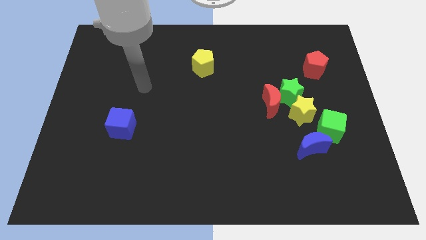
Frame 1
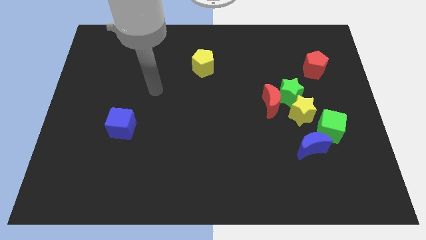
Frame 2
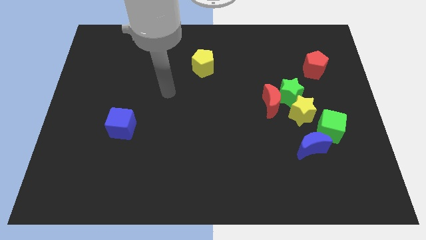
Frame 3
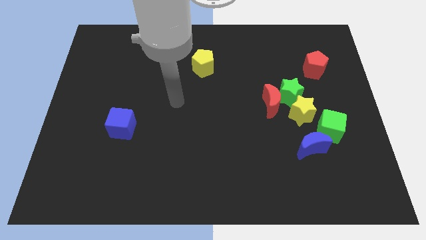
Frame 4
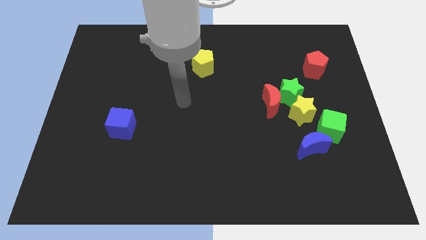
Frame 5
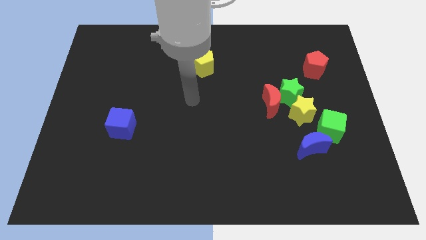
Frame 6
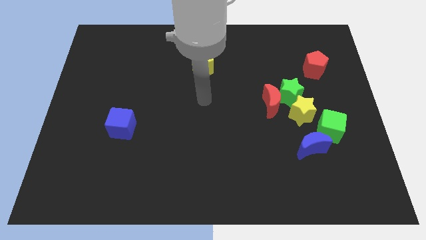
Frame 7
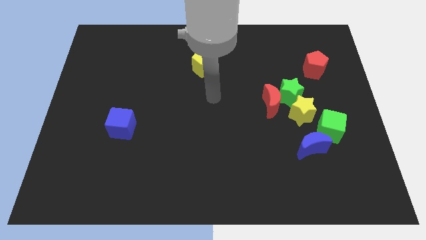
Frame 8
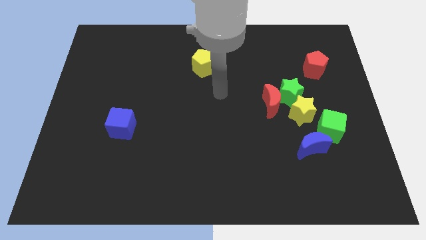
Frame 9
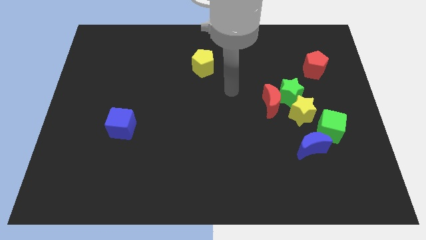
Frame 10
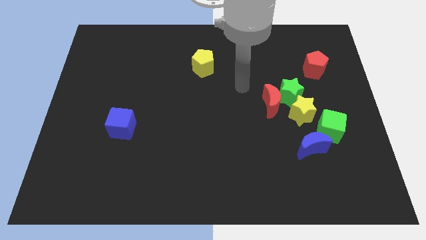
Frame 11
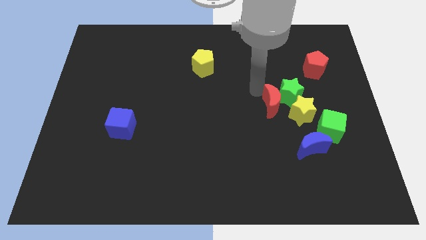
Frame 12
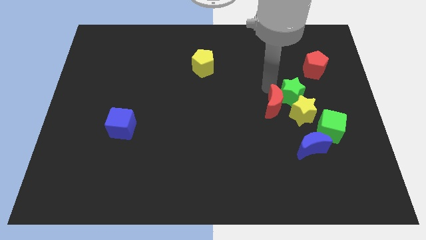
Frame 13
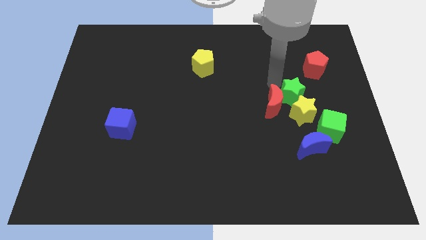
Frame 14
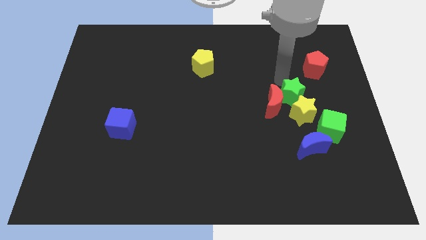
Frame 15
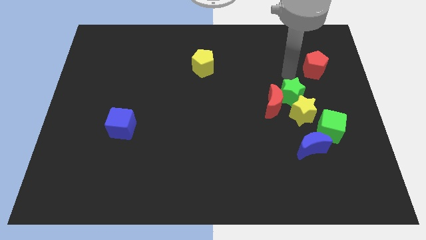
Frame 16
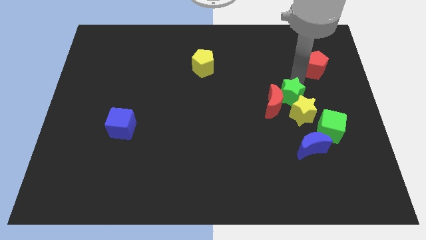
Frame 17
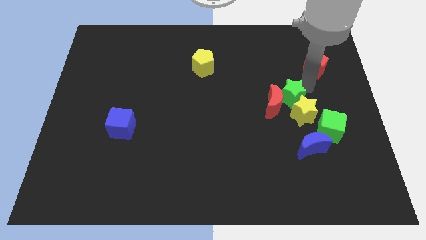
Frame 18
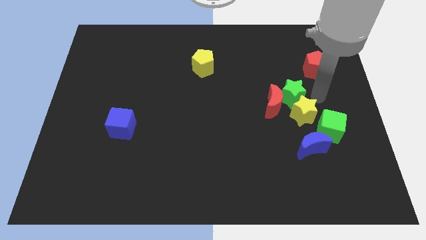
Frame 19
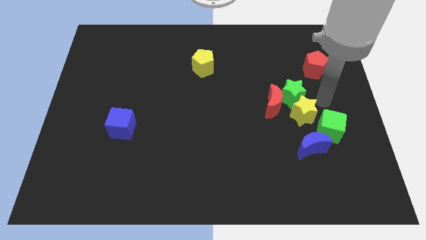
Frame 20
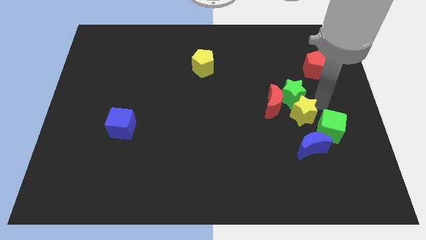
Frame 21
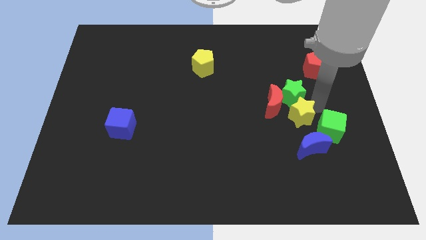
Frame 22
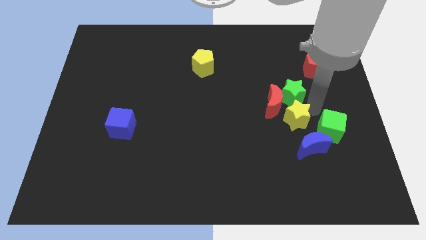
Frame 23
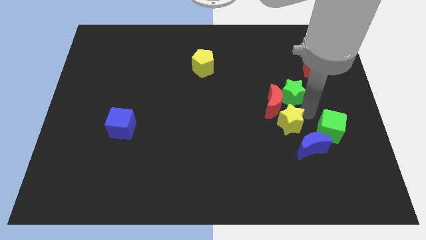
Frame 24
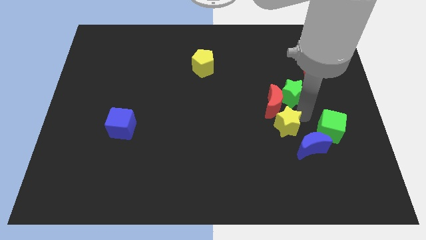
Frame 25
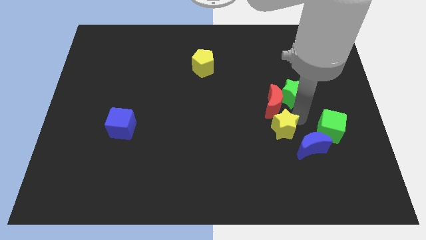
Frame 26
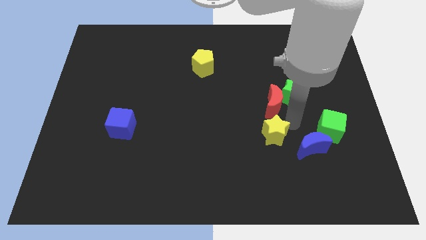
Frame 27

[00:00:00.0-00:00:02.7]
slightly push the yellow star down and then to the left

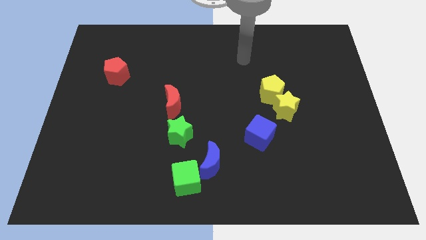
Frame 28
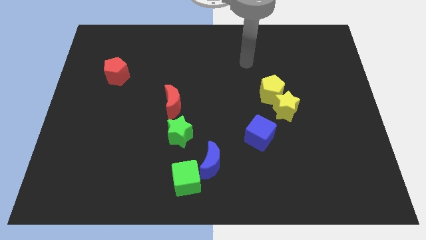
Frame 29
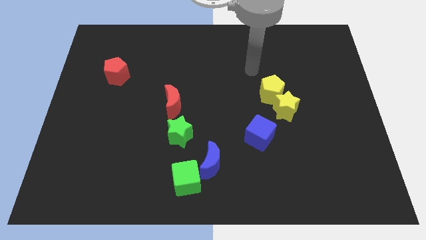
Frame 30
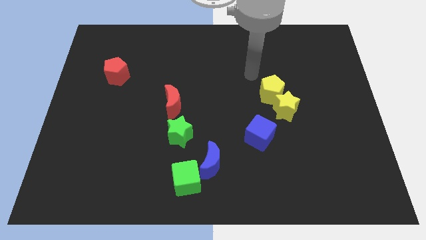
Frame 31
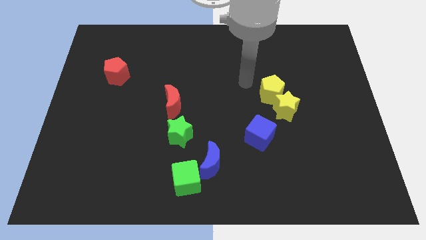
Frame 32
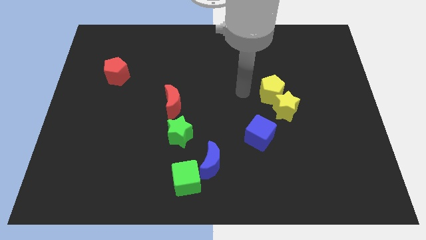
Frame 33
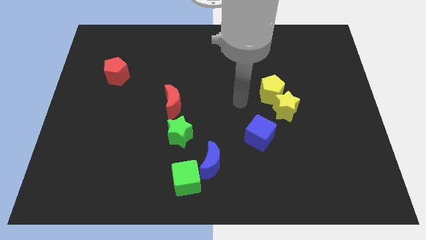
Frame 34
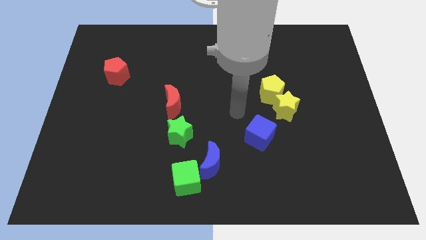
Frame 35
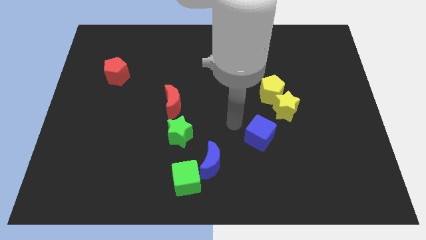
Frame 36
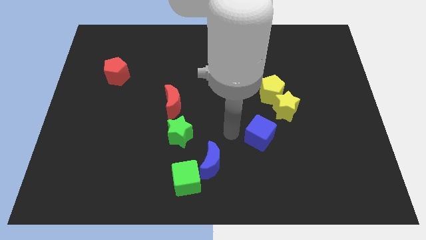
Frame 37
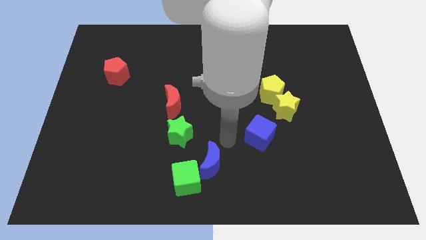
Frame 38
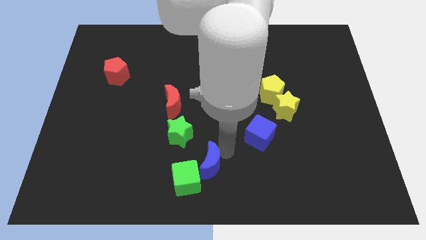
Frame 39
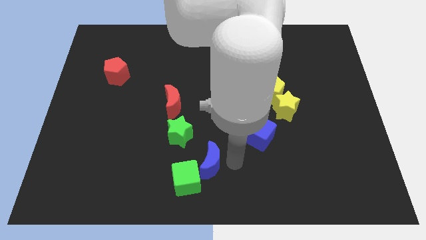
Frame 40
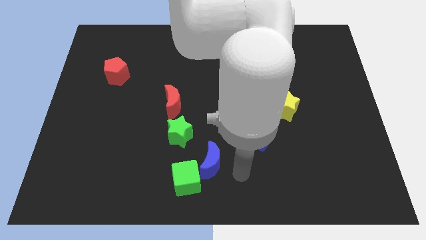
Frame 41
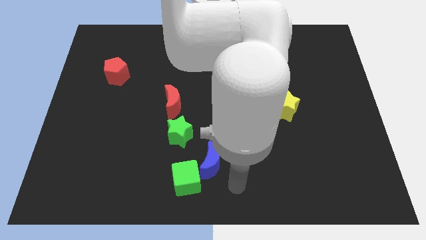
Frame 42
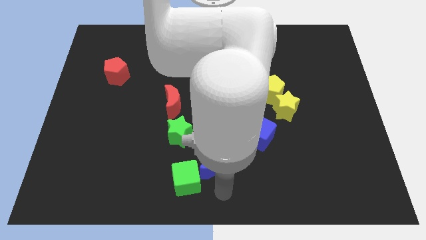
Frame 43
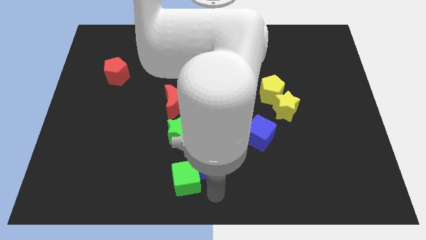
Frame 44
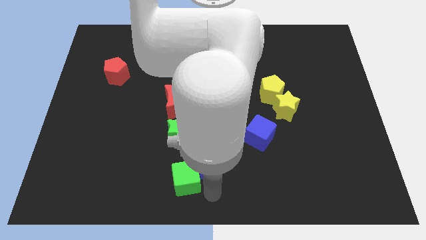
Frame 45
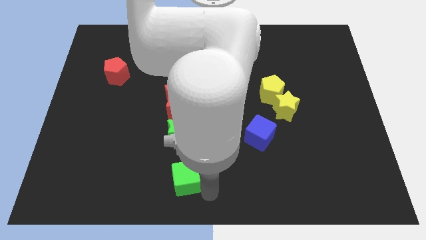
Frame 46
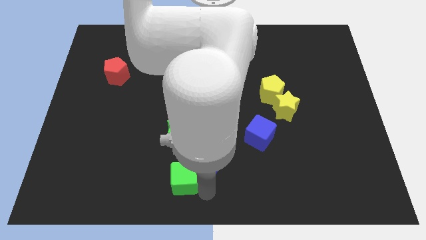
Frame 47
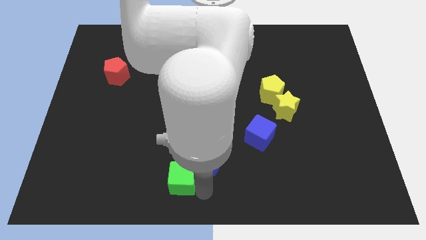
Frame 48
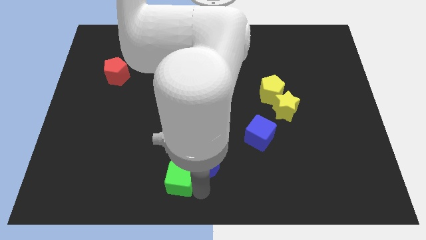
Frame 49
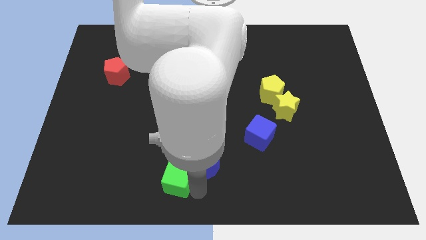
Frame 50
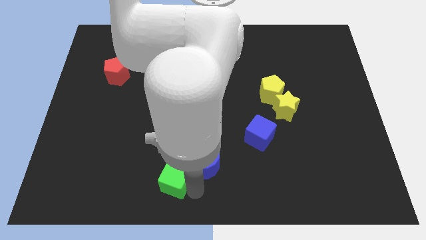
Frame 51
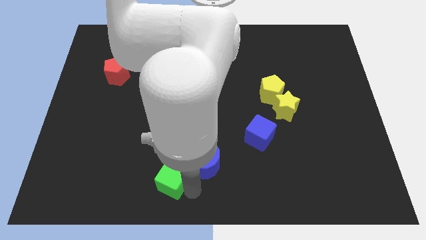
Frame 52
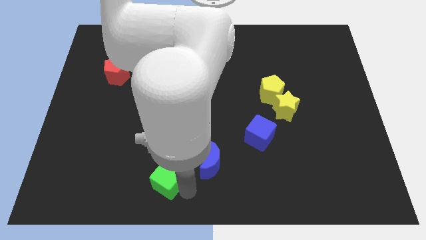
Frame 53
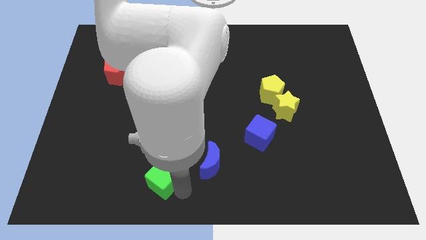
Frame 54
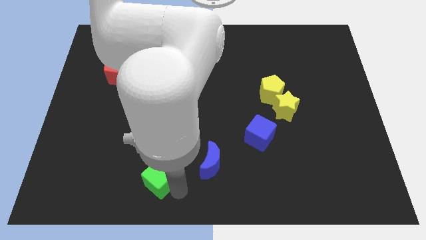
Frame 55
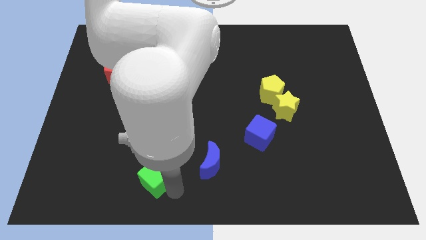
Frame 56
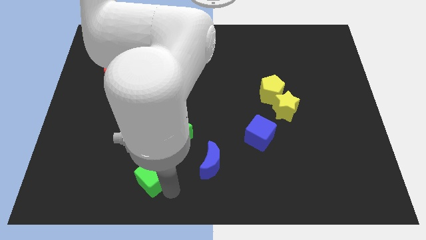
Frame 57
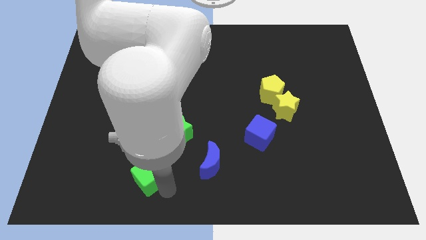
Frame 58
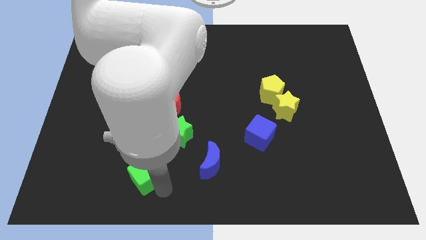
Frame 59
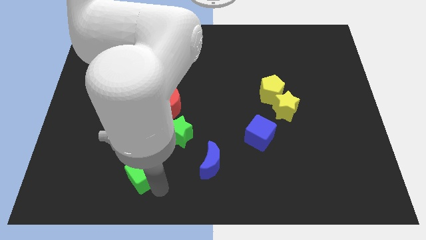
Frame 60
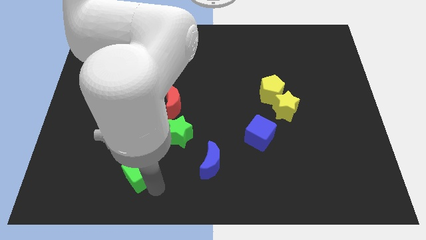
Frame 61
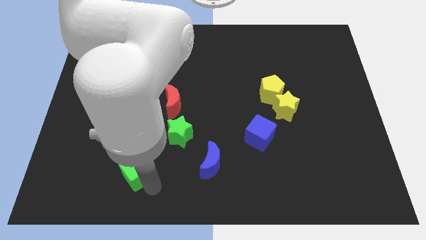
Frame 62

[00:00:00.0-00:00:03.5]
slide the green cube slightly upwards and then to the left

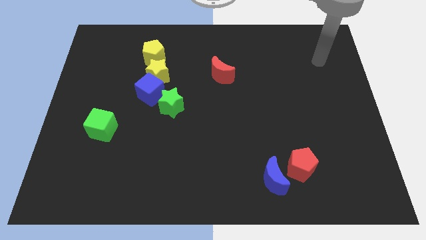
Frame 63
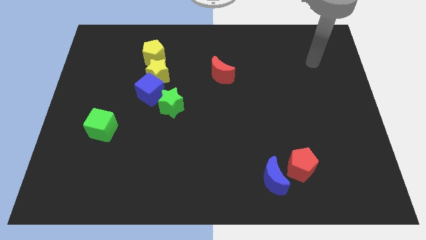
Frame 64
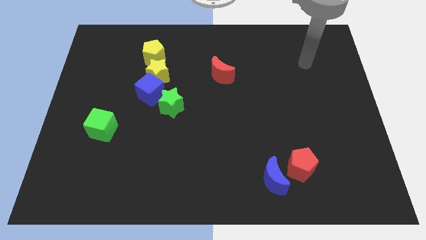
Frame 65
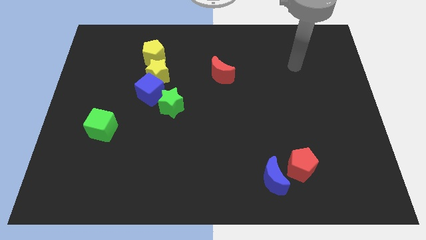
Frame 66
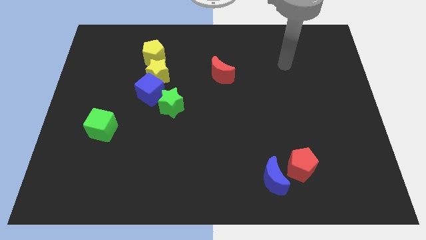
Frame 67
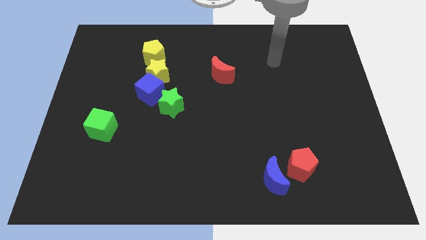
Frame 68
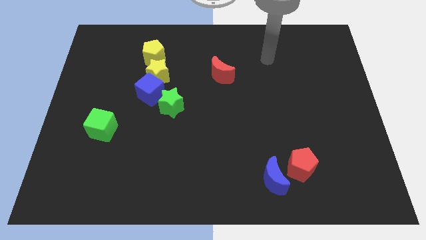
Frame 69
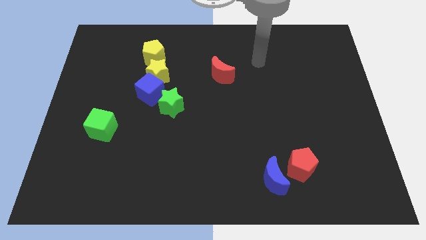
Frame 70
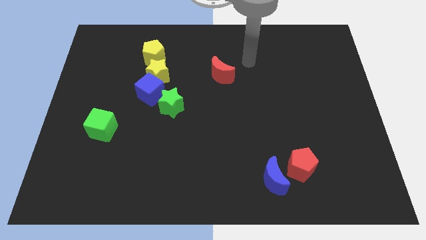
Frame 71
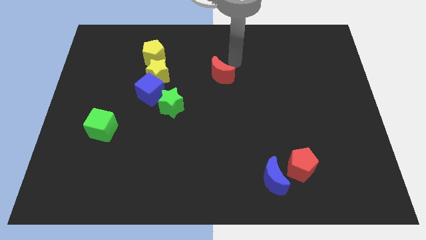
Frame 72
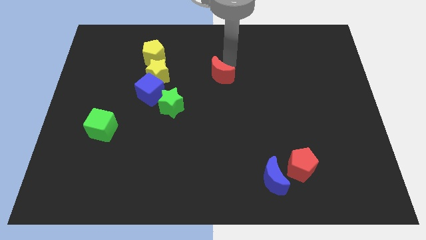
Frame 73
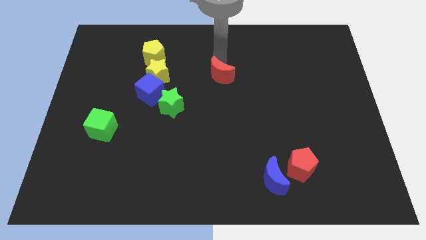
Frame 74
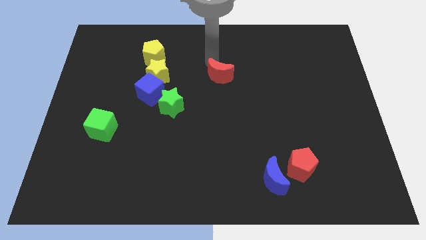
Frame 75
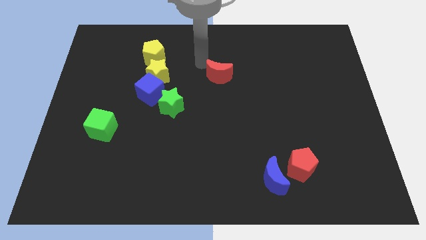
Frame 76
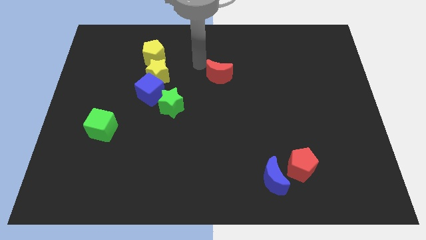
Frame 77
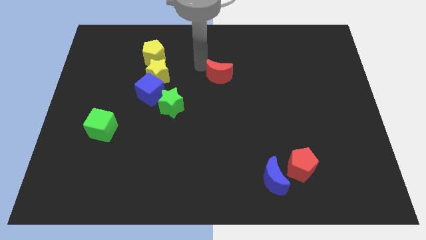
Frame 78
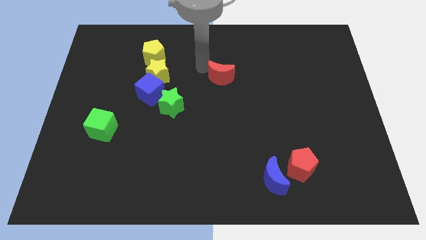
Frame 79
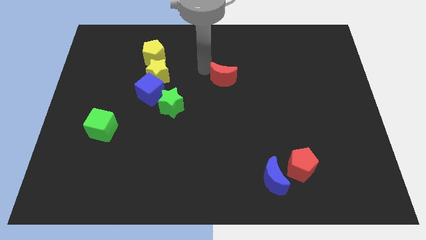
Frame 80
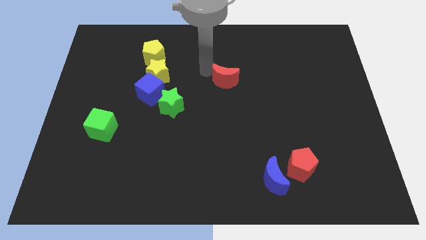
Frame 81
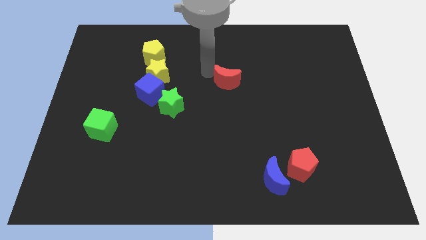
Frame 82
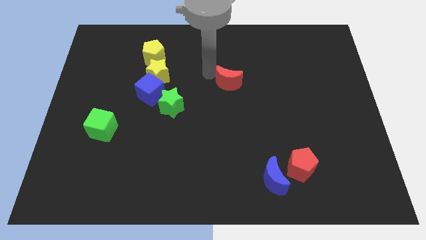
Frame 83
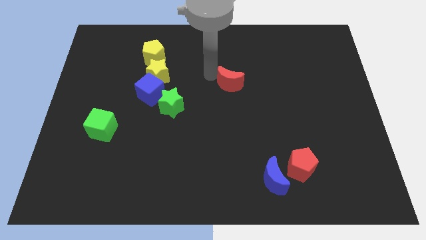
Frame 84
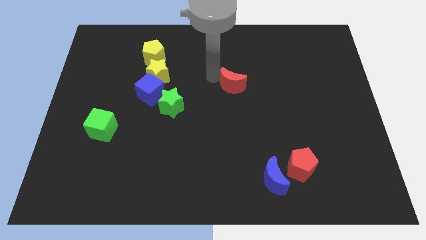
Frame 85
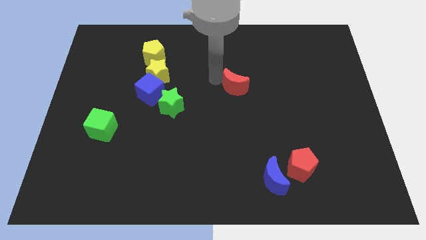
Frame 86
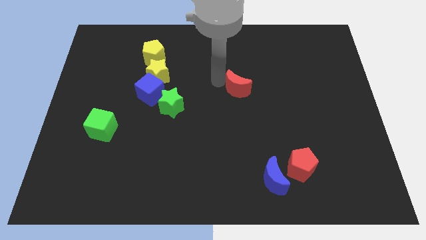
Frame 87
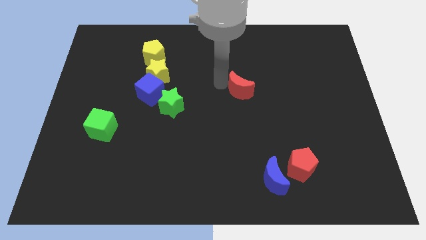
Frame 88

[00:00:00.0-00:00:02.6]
push the red moon down and then to the right somewhat
